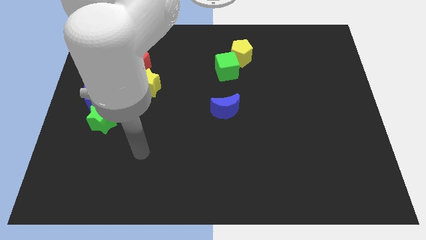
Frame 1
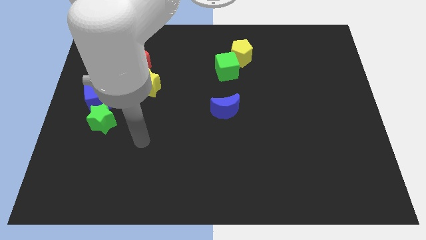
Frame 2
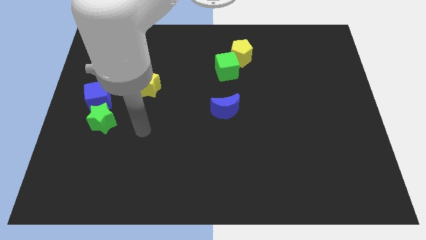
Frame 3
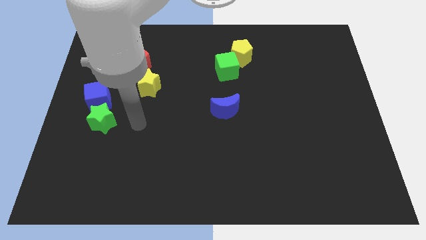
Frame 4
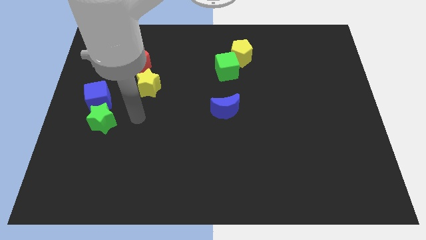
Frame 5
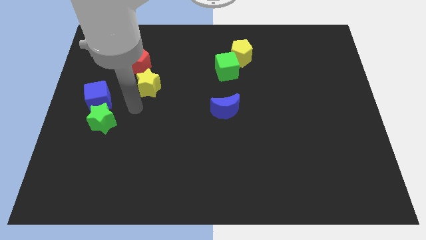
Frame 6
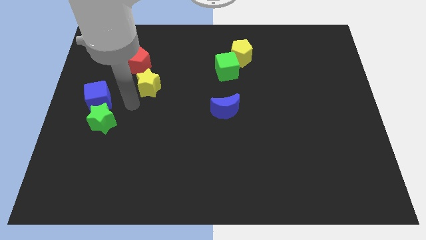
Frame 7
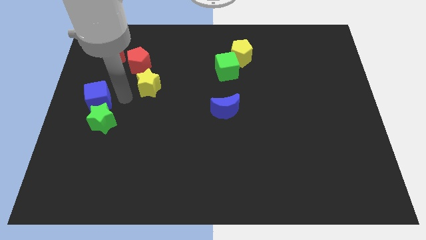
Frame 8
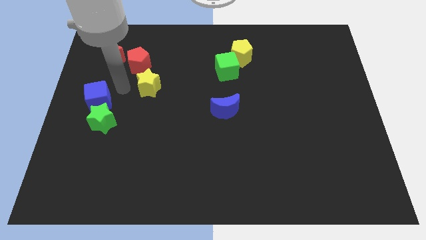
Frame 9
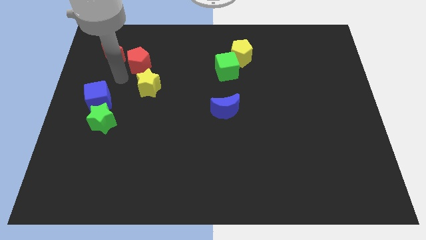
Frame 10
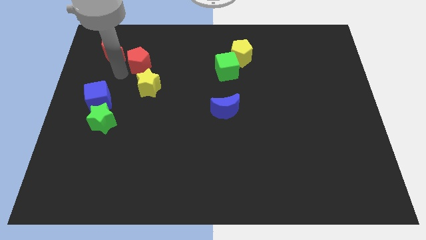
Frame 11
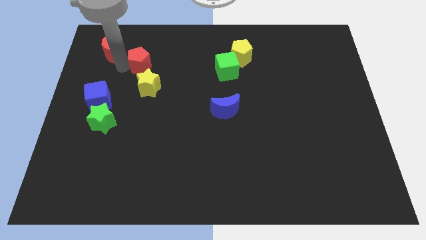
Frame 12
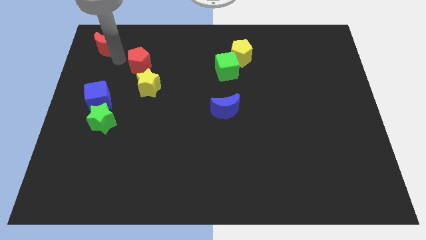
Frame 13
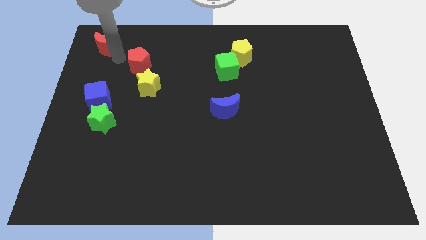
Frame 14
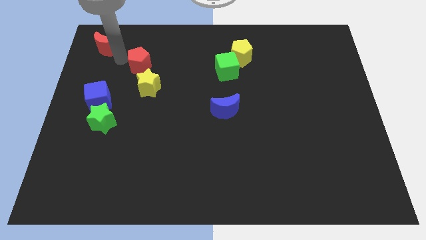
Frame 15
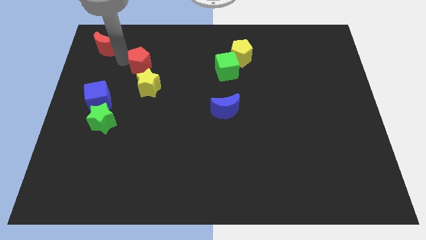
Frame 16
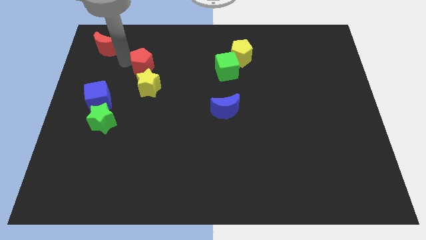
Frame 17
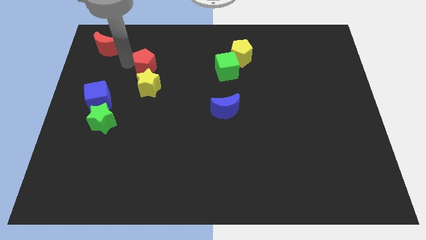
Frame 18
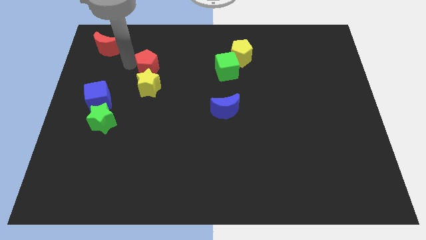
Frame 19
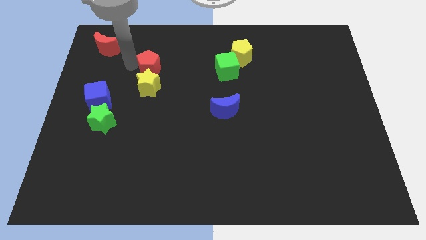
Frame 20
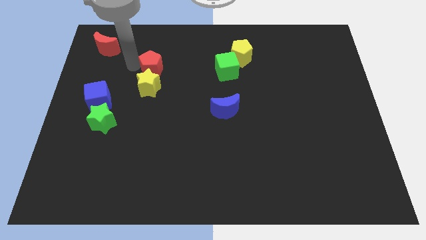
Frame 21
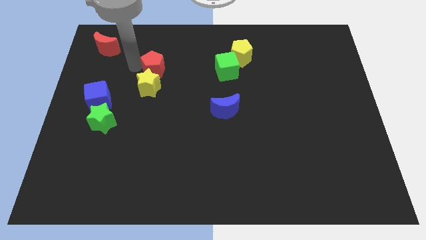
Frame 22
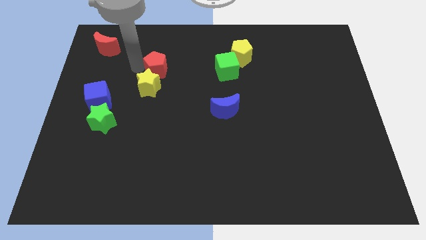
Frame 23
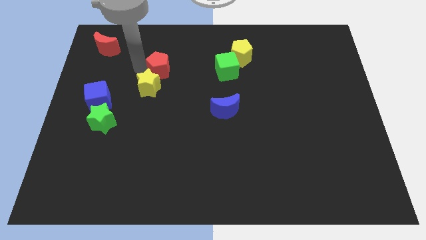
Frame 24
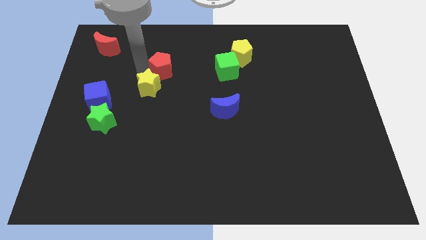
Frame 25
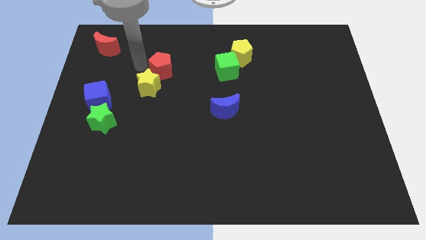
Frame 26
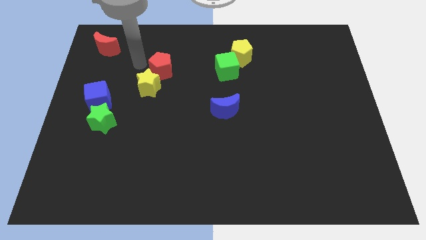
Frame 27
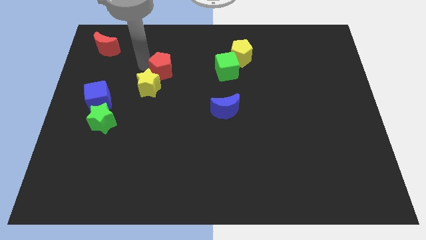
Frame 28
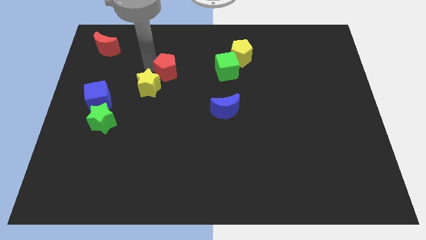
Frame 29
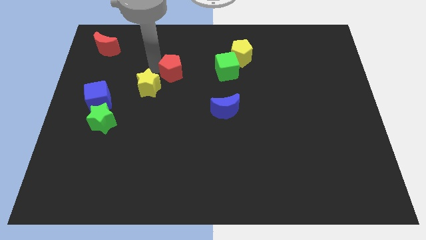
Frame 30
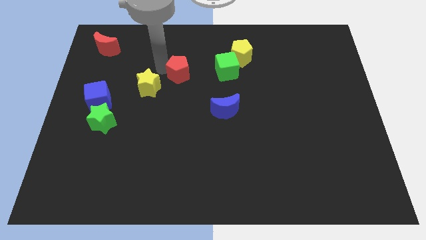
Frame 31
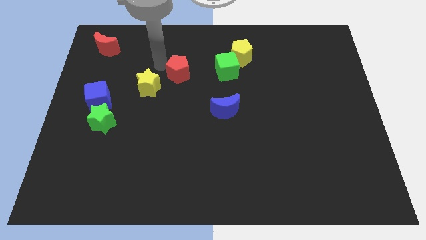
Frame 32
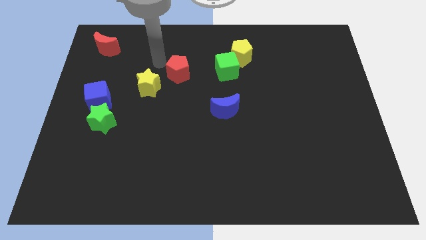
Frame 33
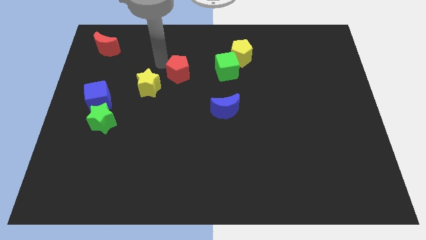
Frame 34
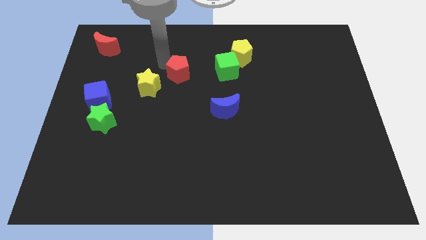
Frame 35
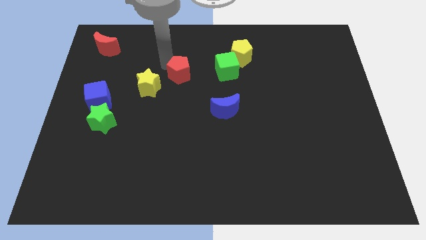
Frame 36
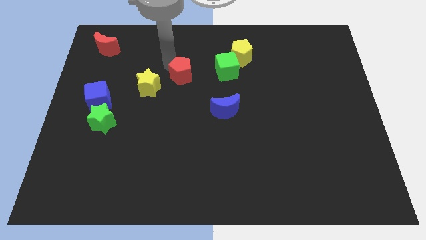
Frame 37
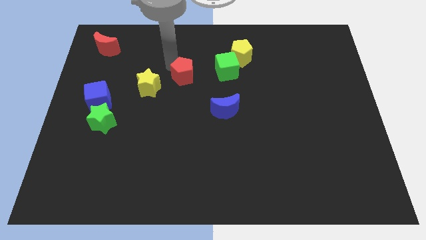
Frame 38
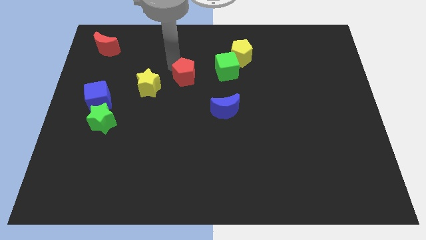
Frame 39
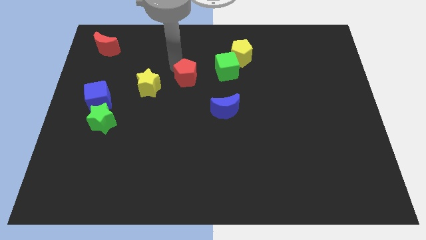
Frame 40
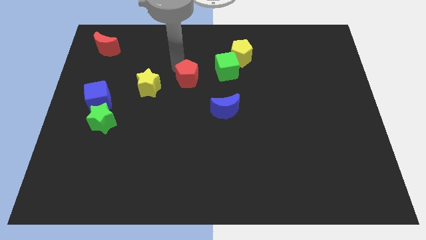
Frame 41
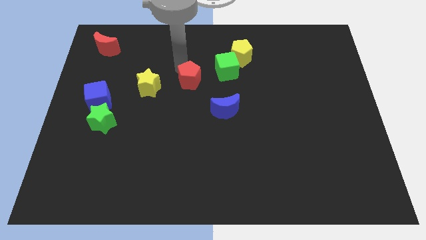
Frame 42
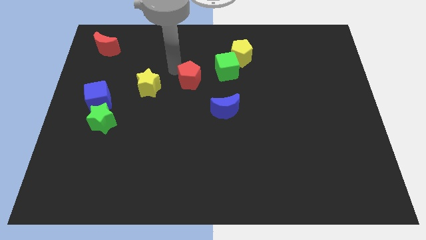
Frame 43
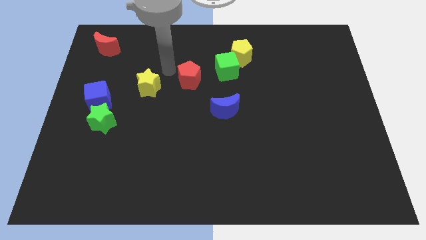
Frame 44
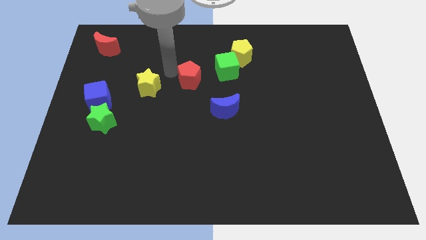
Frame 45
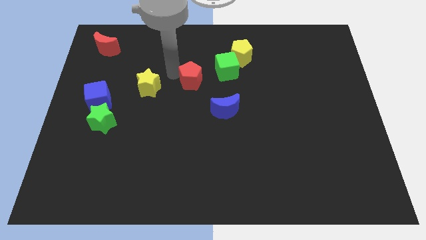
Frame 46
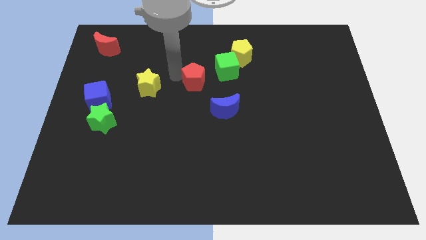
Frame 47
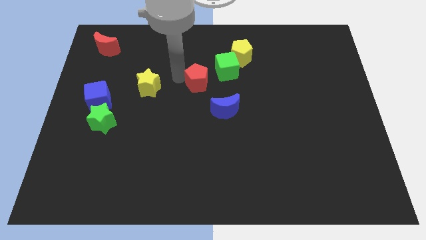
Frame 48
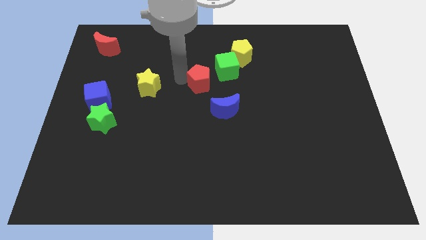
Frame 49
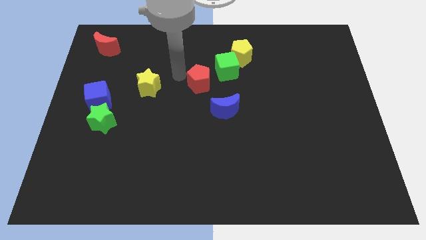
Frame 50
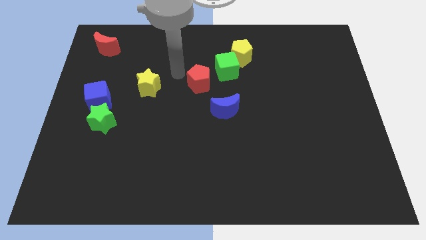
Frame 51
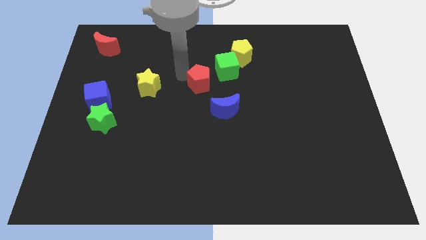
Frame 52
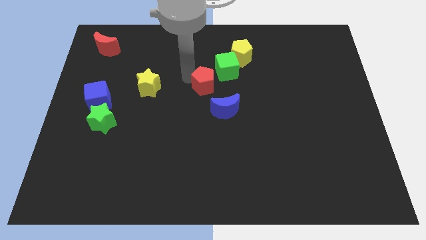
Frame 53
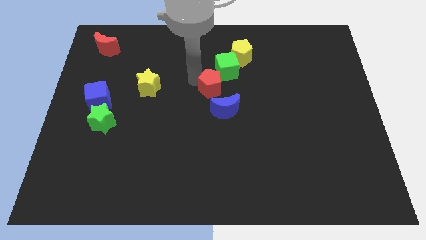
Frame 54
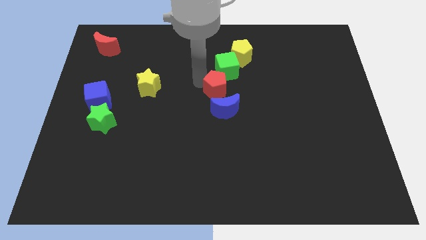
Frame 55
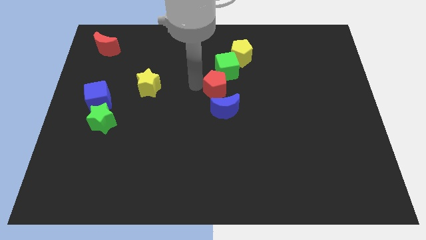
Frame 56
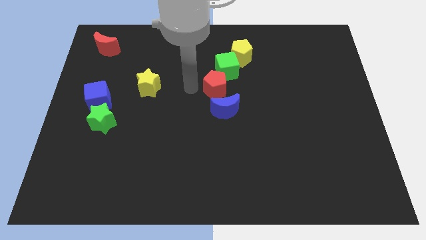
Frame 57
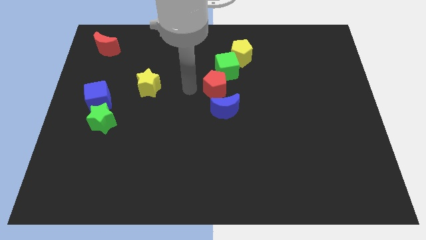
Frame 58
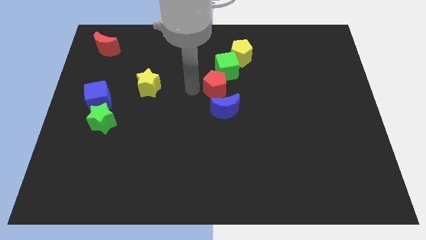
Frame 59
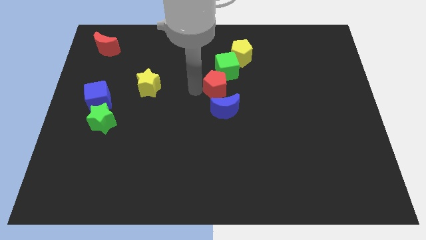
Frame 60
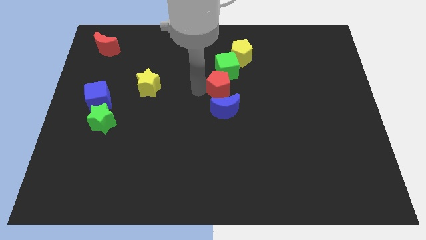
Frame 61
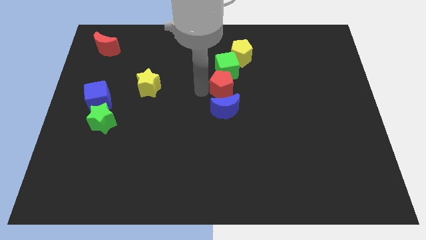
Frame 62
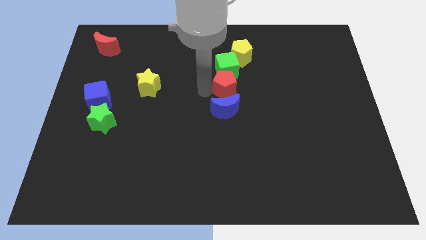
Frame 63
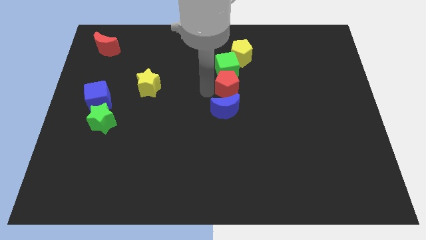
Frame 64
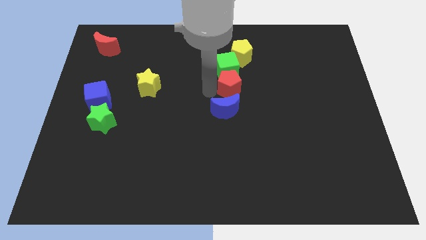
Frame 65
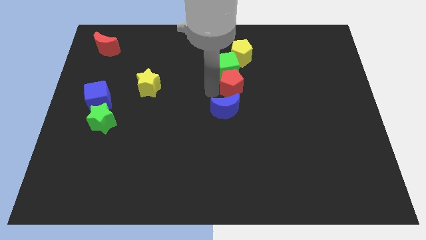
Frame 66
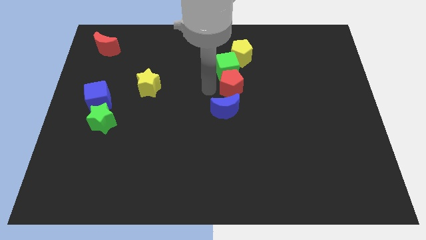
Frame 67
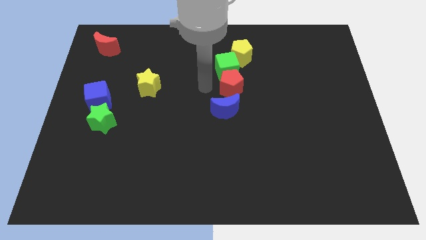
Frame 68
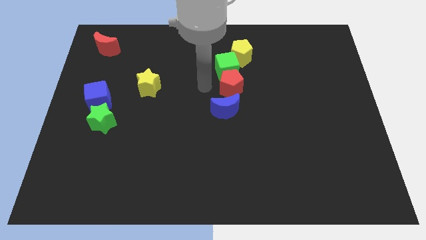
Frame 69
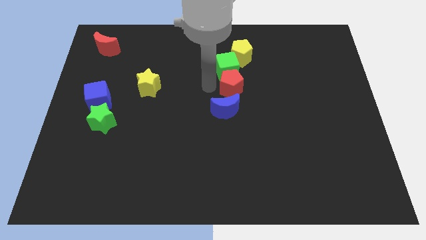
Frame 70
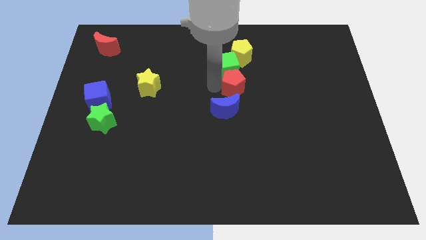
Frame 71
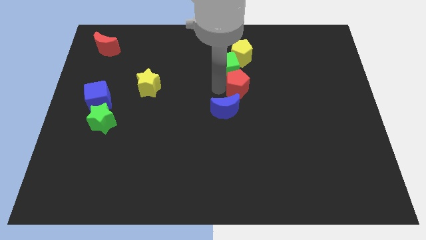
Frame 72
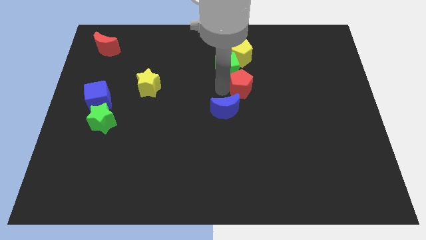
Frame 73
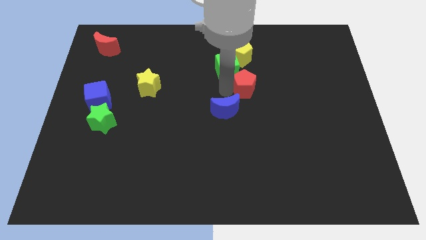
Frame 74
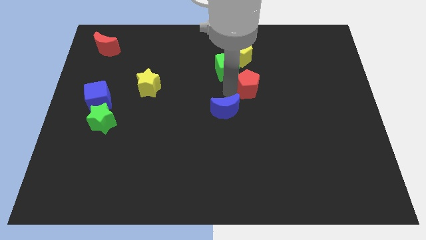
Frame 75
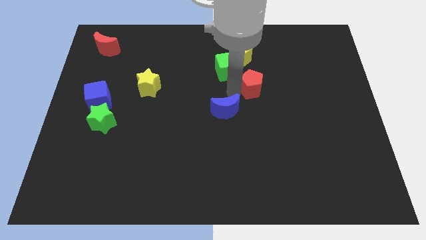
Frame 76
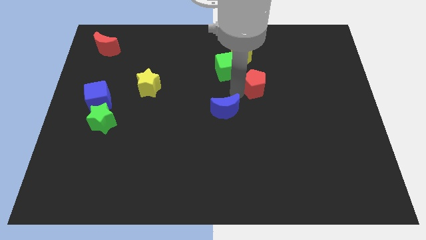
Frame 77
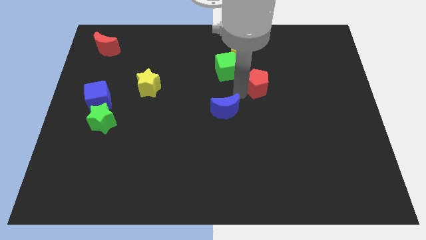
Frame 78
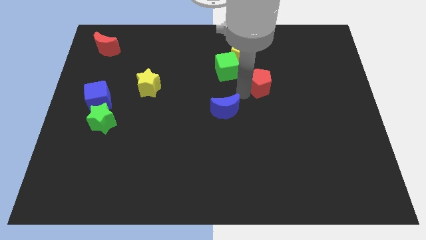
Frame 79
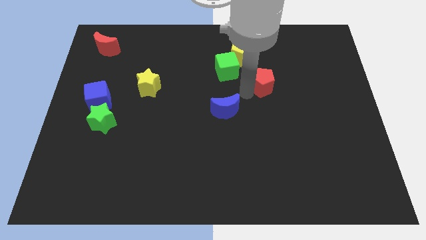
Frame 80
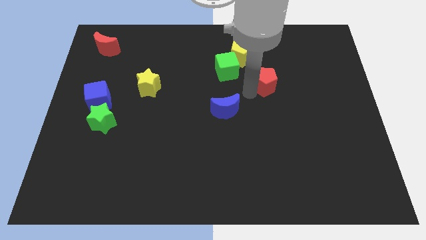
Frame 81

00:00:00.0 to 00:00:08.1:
move the red pentagon to the right side of the green cube
